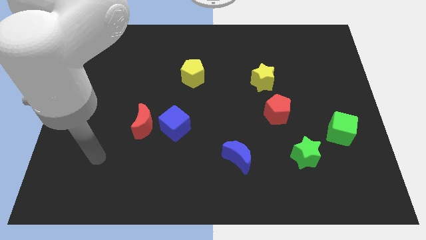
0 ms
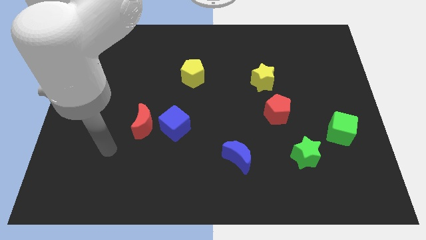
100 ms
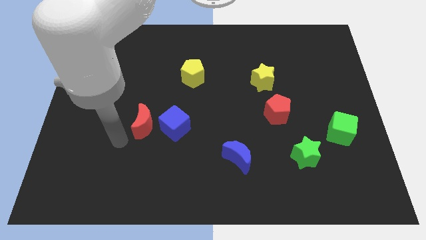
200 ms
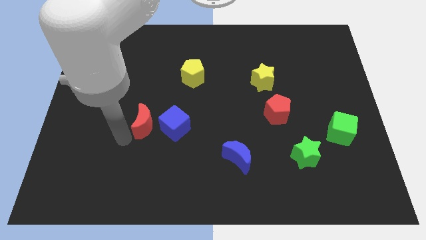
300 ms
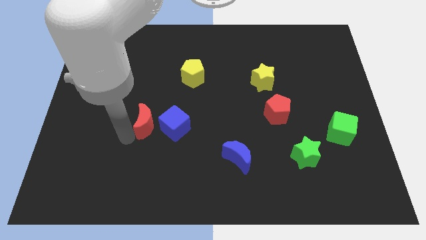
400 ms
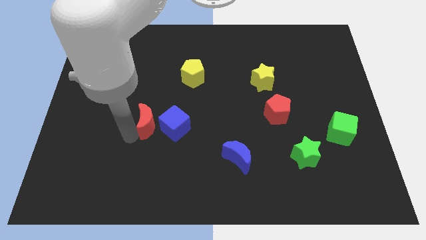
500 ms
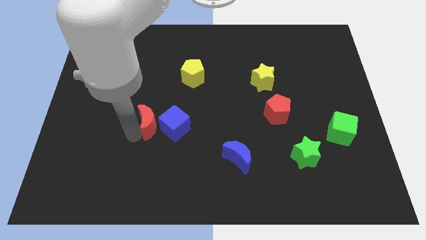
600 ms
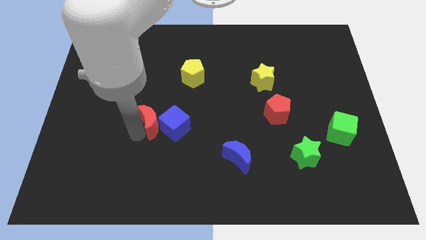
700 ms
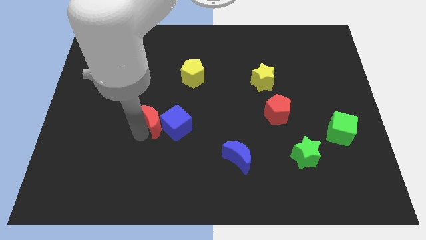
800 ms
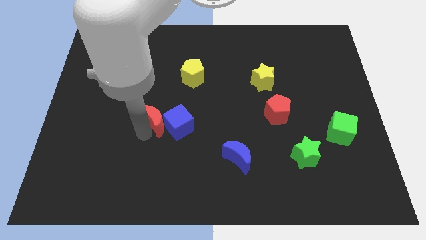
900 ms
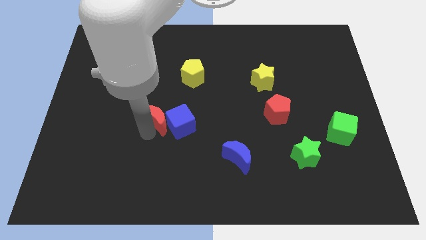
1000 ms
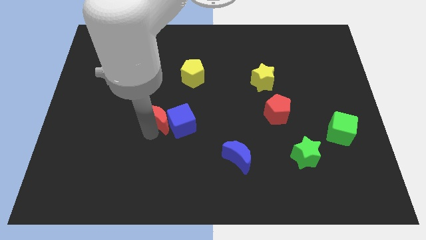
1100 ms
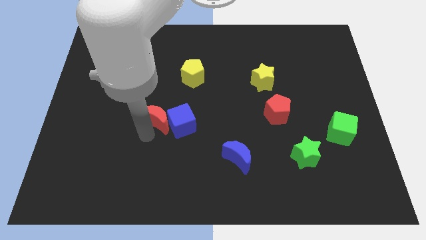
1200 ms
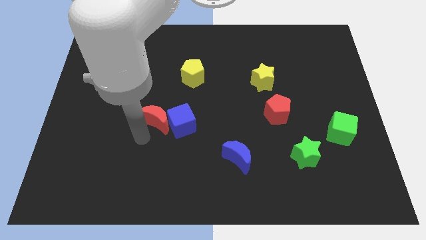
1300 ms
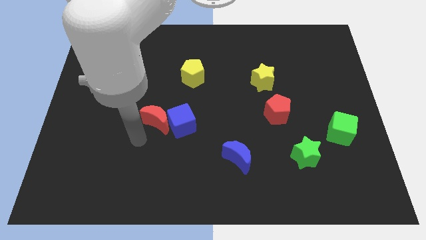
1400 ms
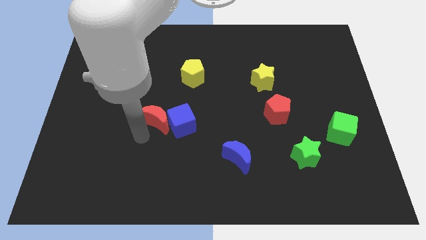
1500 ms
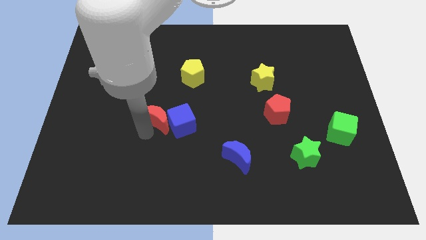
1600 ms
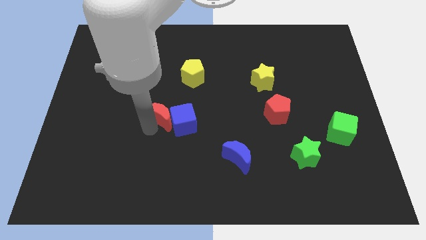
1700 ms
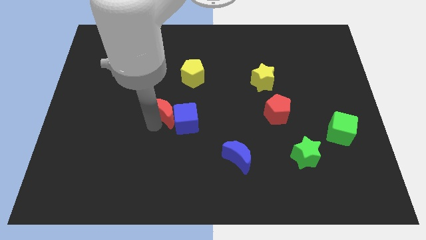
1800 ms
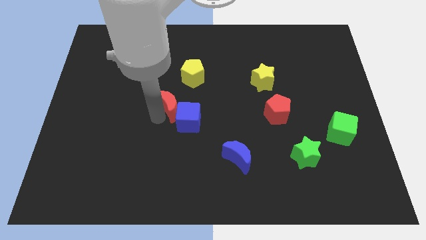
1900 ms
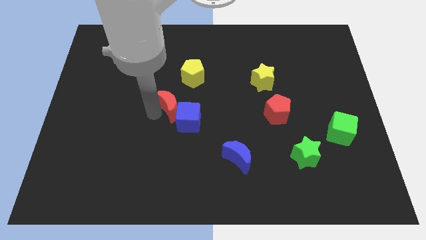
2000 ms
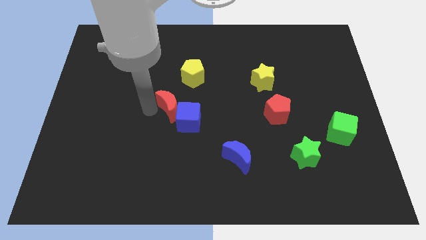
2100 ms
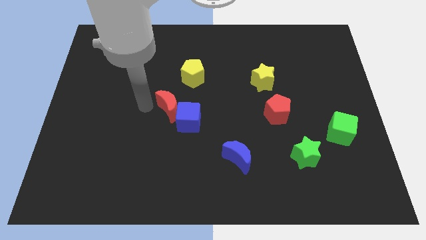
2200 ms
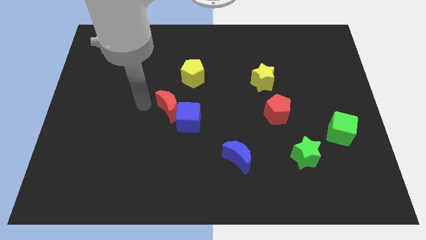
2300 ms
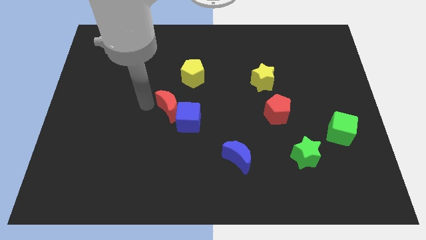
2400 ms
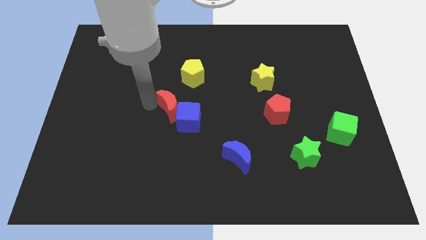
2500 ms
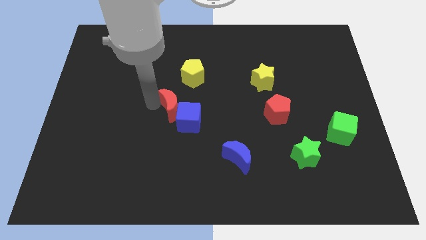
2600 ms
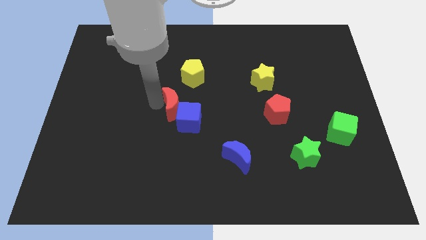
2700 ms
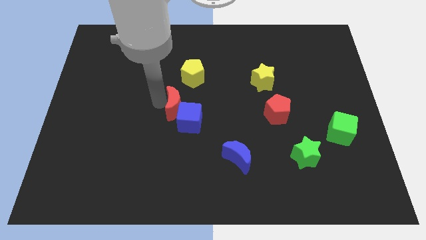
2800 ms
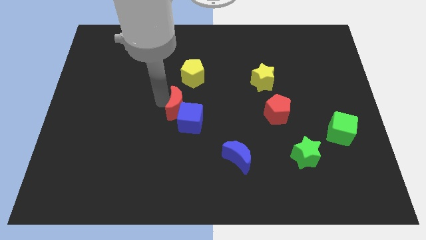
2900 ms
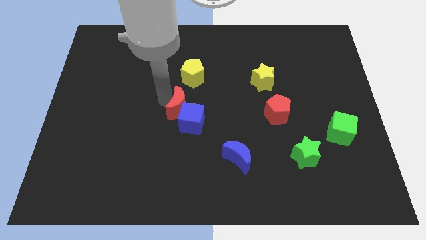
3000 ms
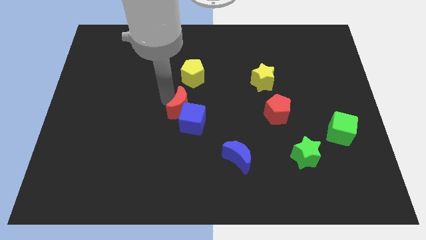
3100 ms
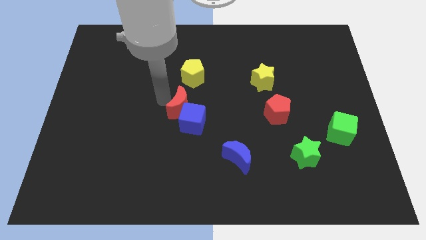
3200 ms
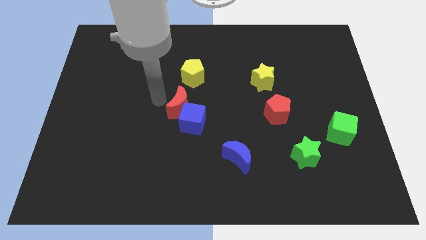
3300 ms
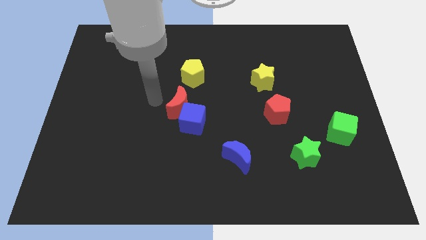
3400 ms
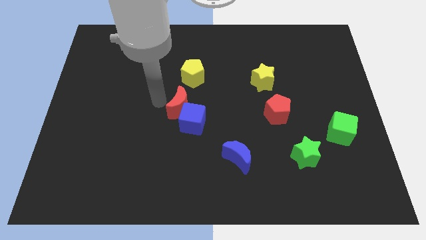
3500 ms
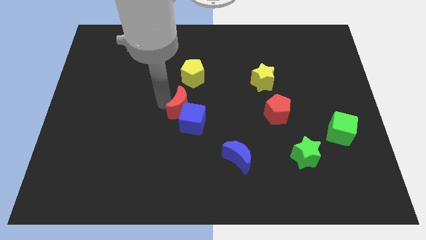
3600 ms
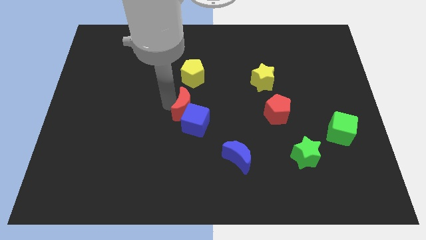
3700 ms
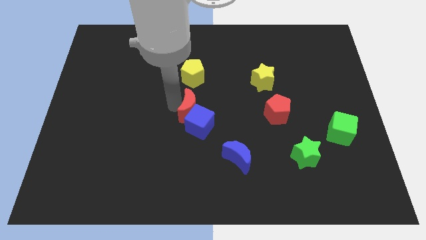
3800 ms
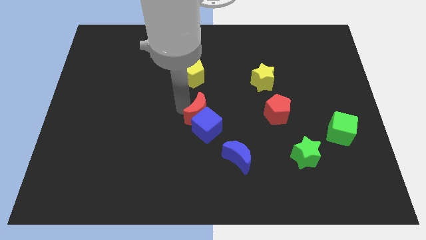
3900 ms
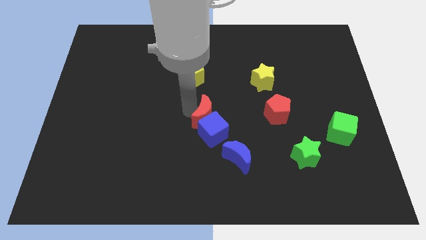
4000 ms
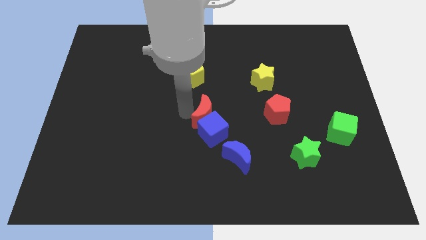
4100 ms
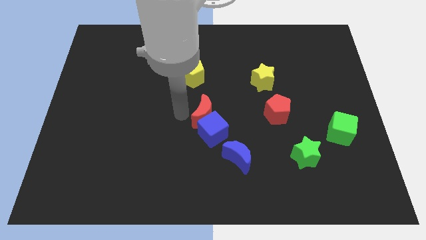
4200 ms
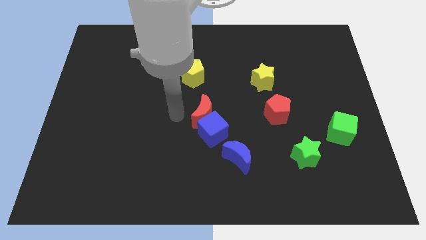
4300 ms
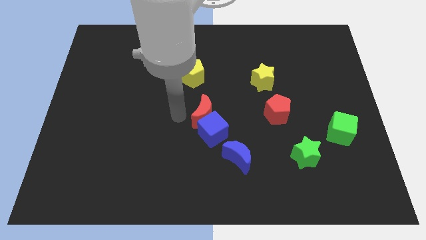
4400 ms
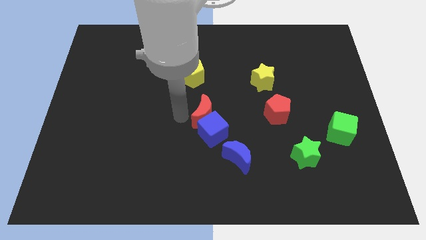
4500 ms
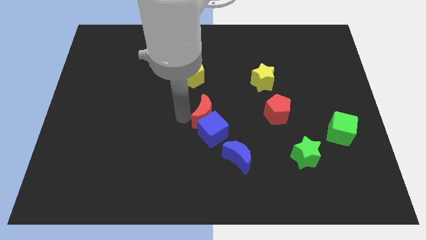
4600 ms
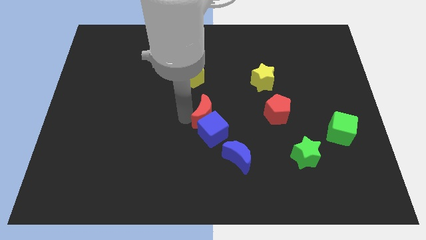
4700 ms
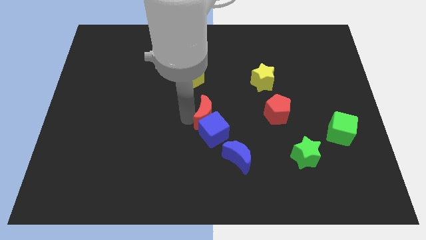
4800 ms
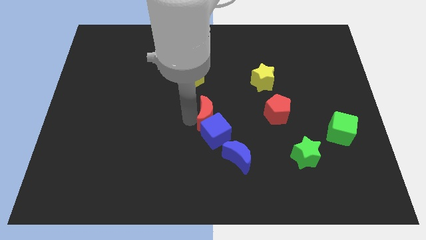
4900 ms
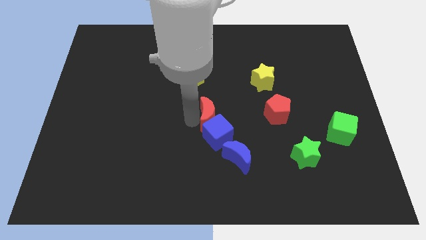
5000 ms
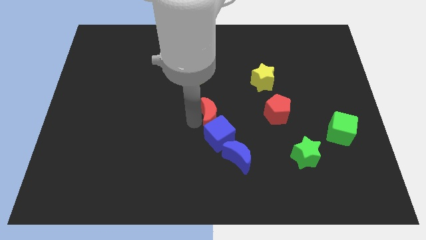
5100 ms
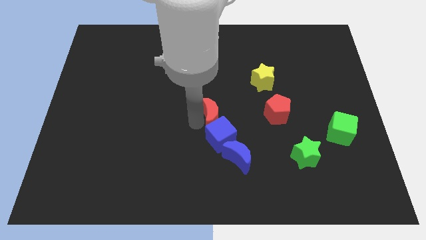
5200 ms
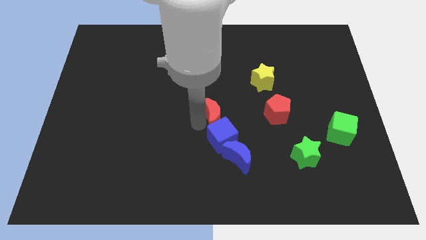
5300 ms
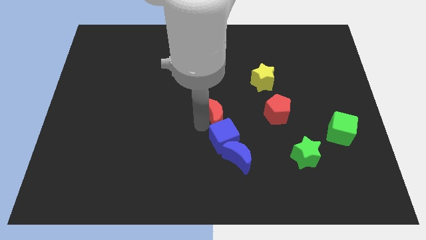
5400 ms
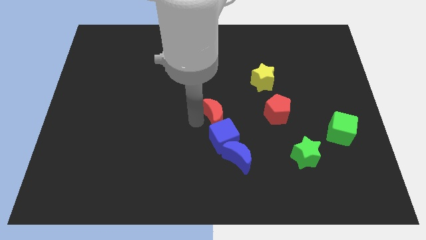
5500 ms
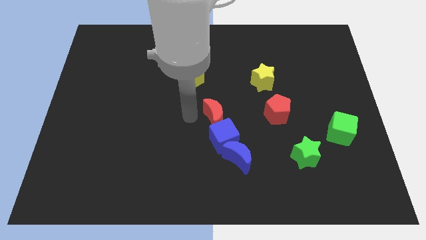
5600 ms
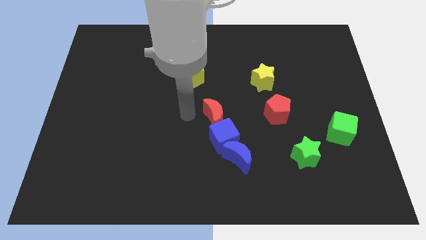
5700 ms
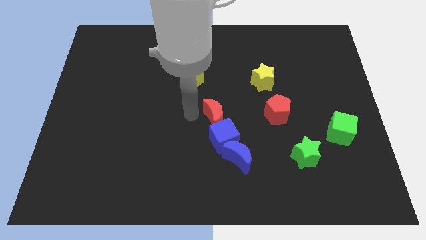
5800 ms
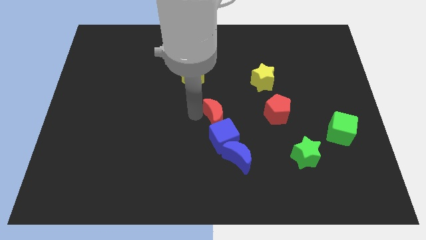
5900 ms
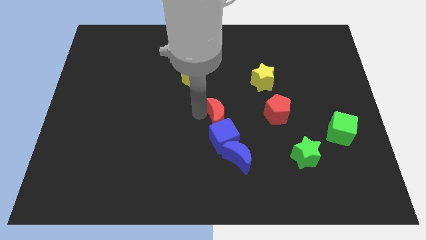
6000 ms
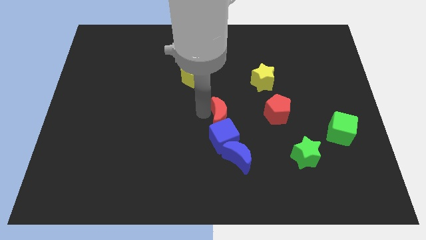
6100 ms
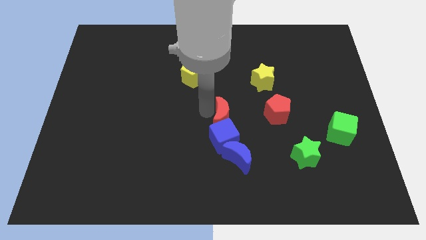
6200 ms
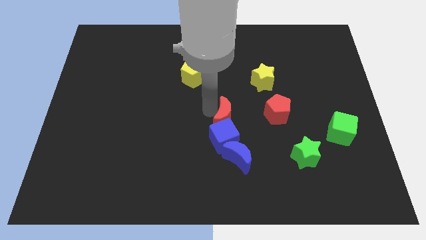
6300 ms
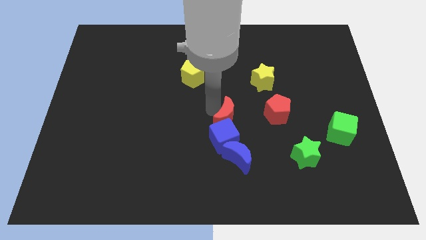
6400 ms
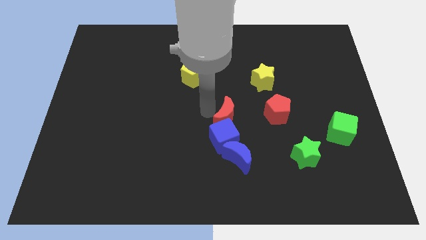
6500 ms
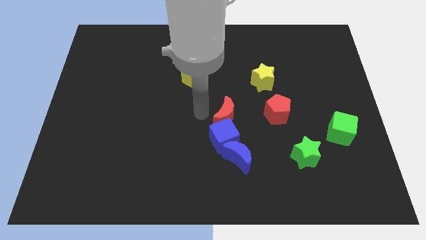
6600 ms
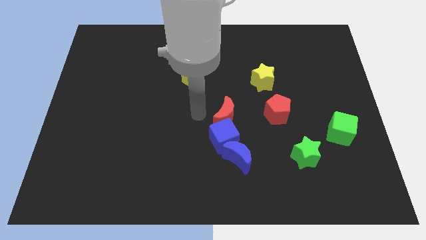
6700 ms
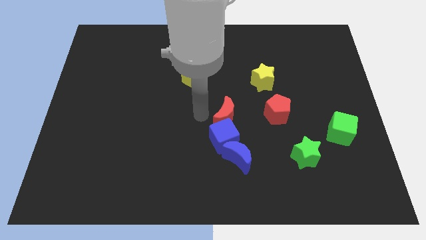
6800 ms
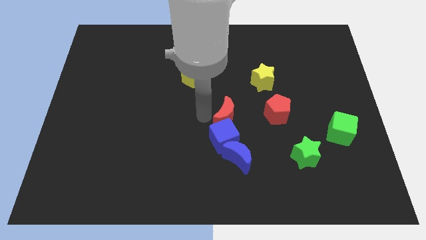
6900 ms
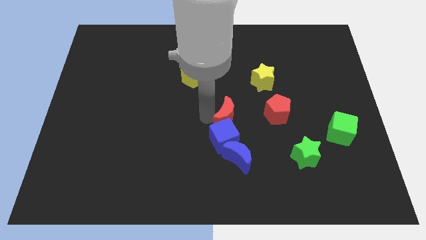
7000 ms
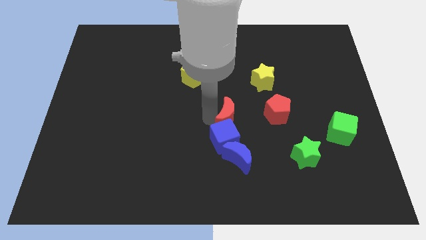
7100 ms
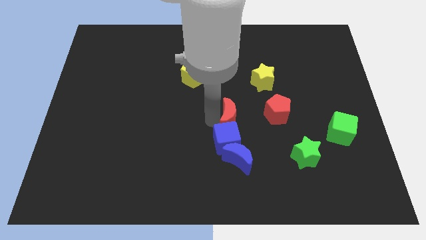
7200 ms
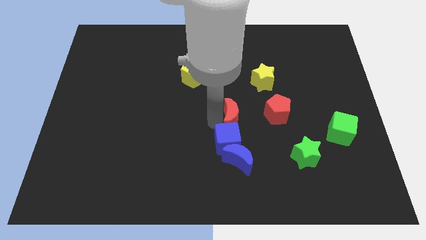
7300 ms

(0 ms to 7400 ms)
move the red moon right

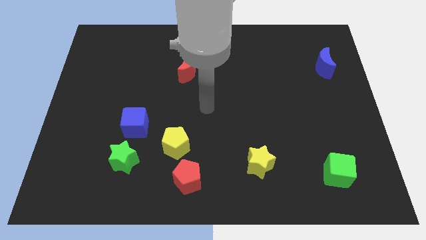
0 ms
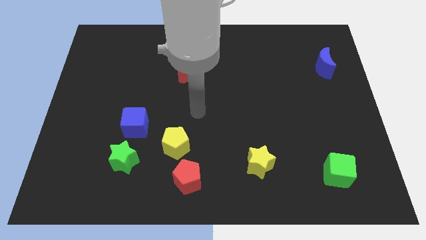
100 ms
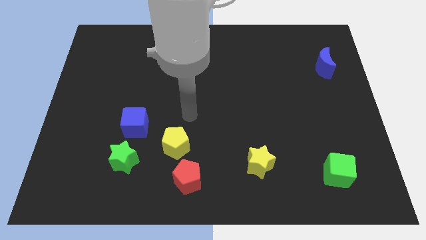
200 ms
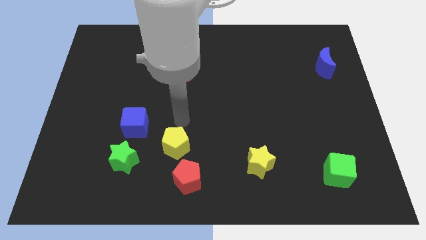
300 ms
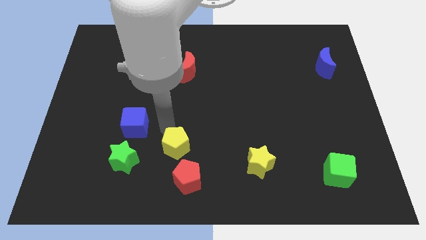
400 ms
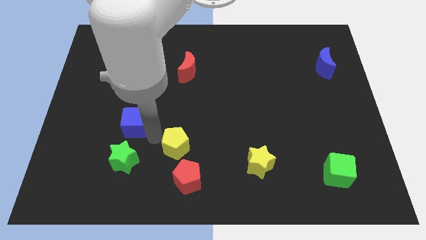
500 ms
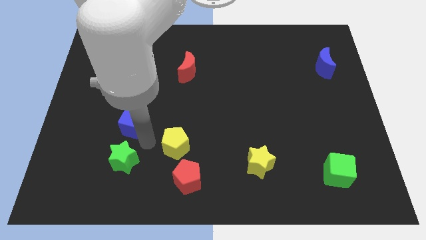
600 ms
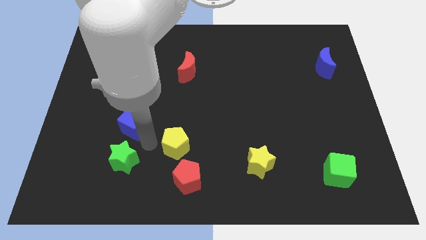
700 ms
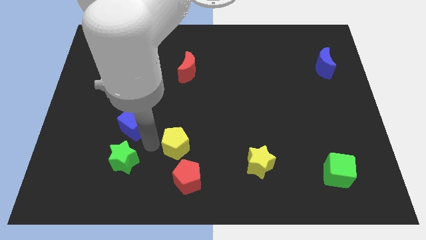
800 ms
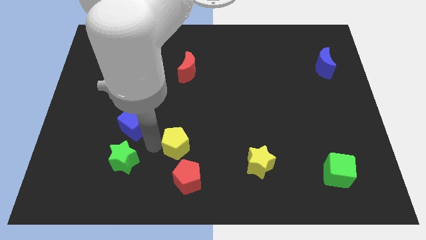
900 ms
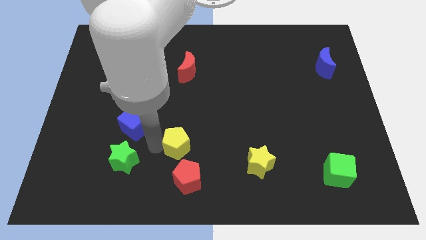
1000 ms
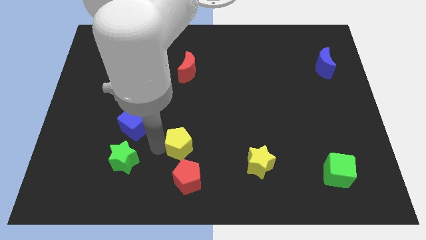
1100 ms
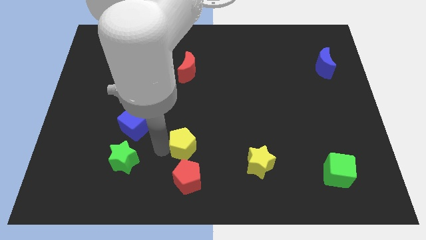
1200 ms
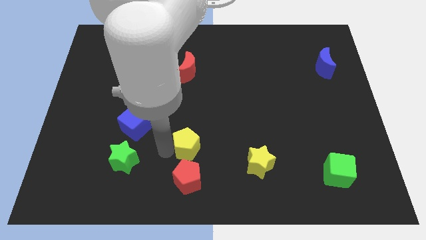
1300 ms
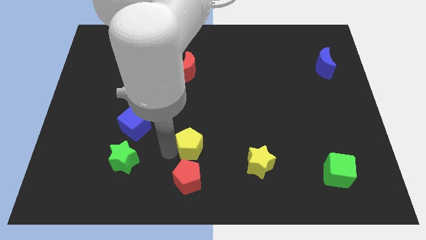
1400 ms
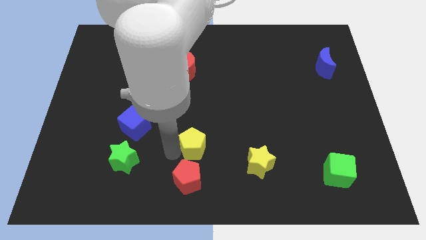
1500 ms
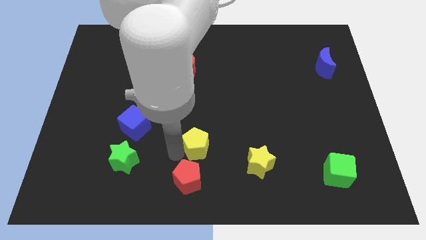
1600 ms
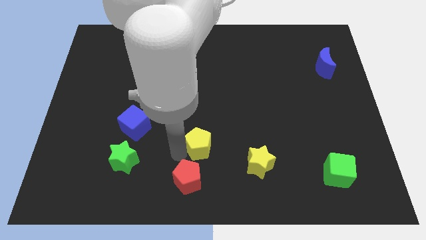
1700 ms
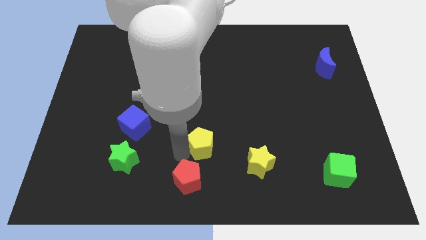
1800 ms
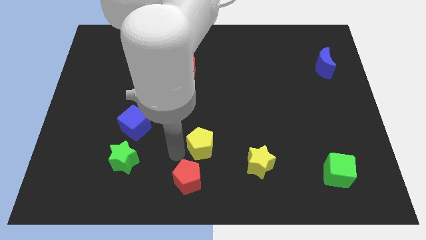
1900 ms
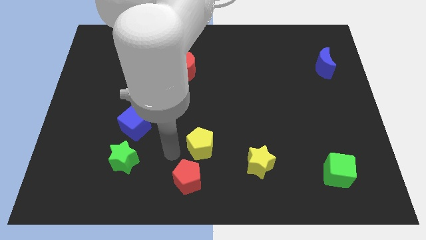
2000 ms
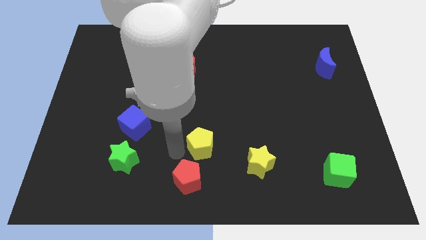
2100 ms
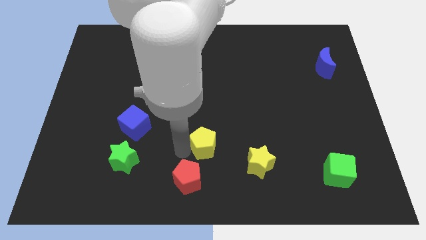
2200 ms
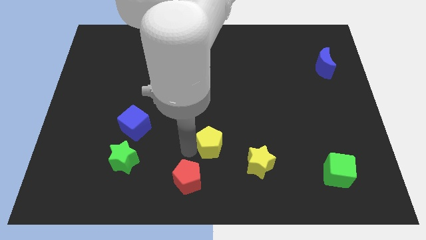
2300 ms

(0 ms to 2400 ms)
slide the yellow pentagon right slightly
